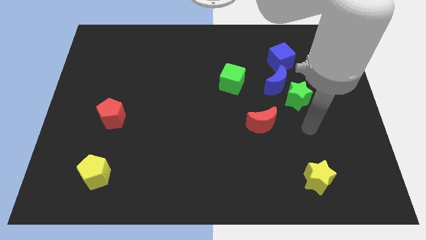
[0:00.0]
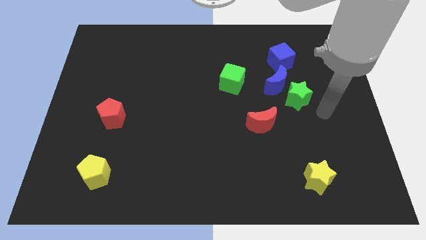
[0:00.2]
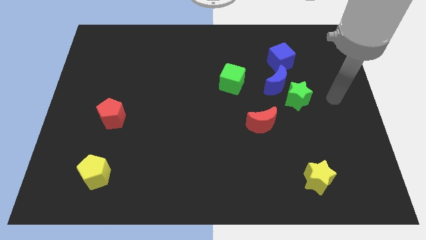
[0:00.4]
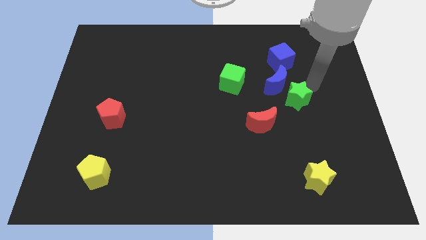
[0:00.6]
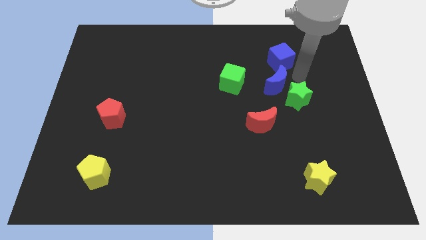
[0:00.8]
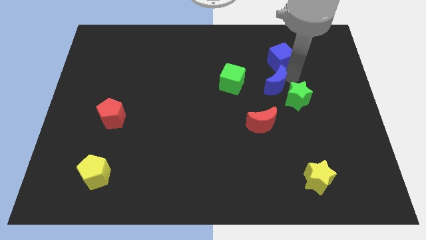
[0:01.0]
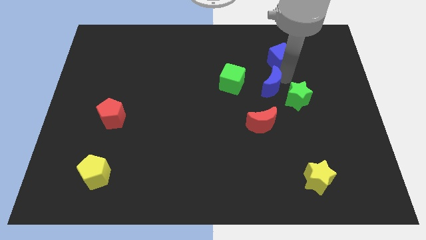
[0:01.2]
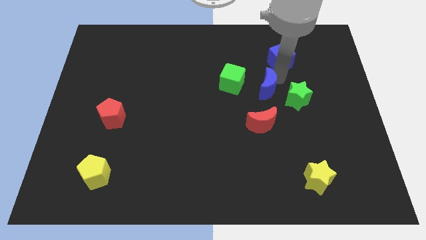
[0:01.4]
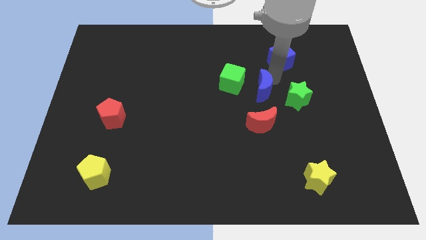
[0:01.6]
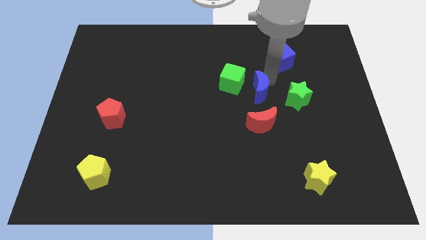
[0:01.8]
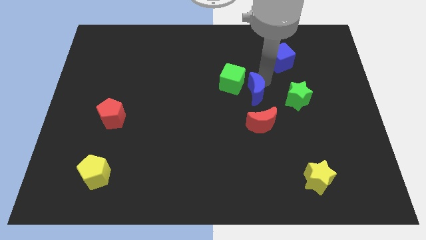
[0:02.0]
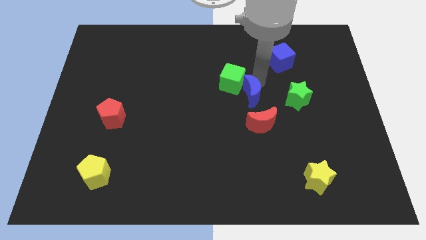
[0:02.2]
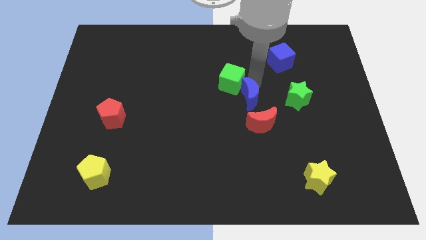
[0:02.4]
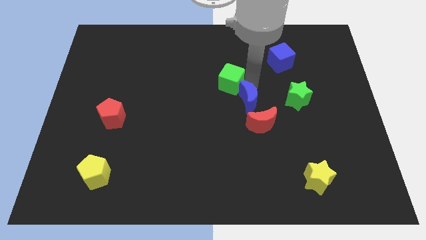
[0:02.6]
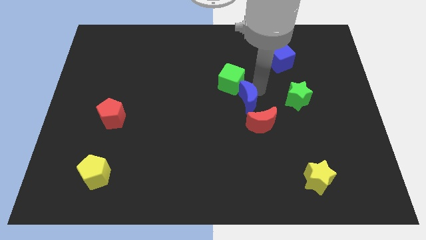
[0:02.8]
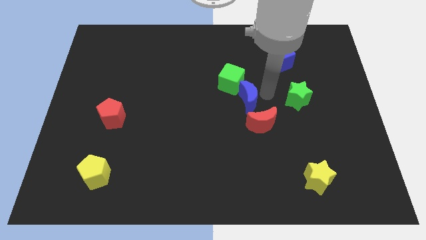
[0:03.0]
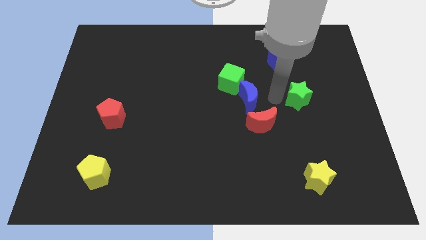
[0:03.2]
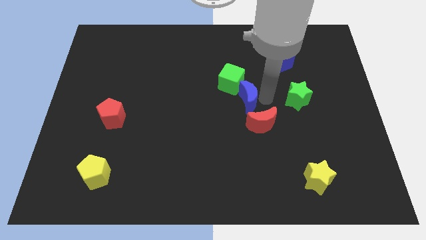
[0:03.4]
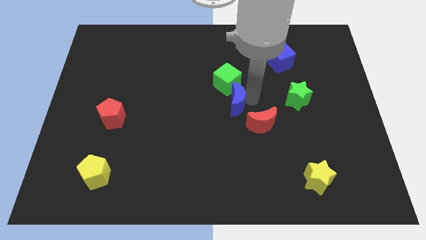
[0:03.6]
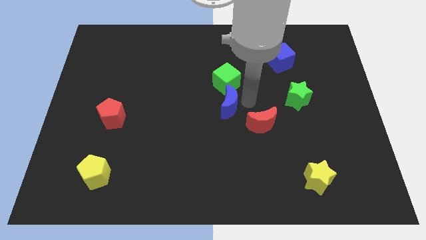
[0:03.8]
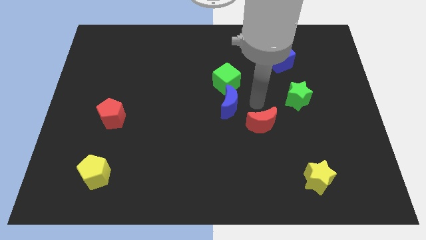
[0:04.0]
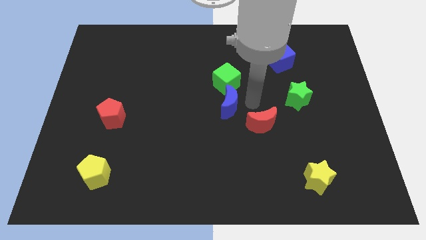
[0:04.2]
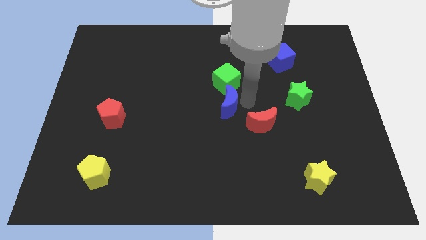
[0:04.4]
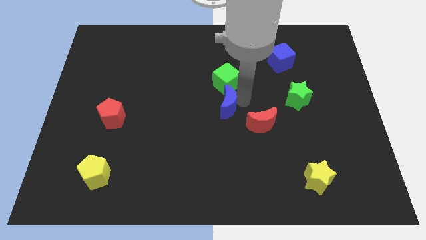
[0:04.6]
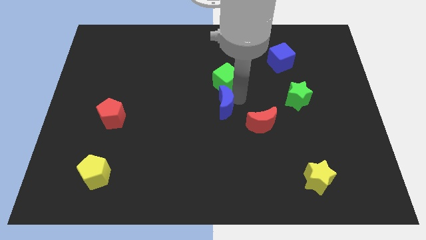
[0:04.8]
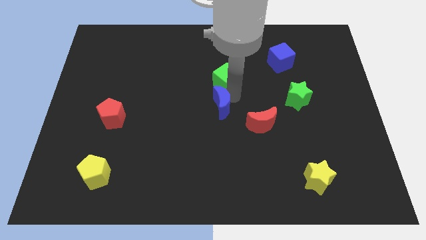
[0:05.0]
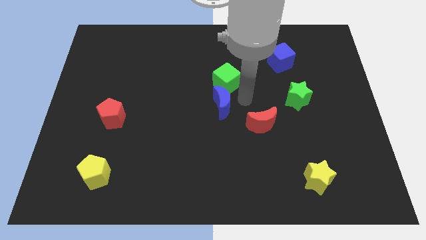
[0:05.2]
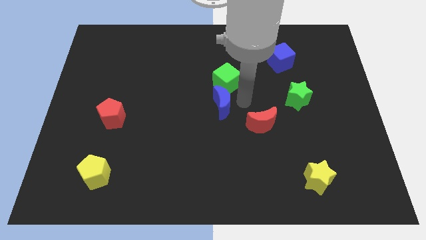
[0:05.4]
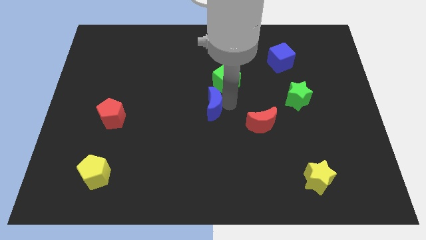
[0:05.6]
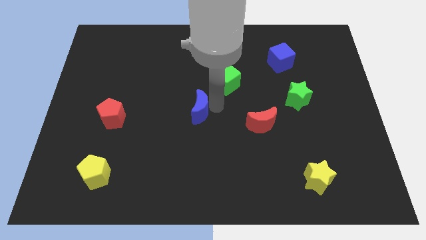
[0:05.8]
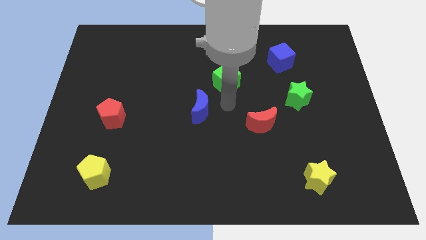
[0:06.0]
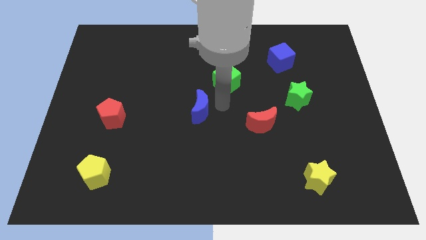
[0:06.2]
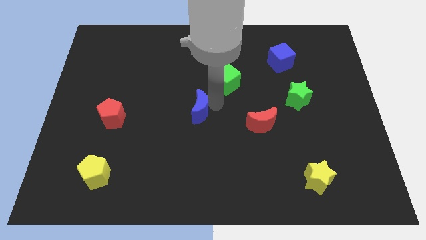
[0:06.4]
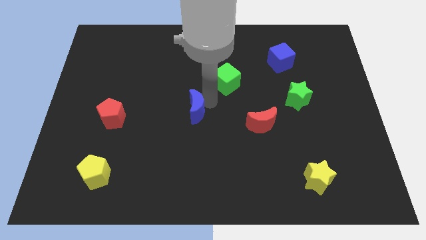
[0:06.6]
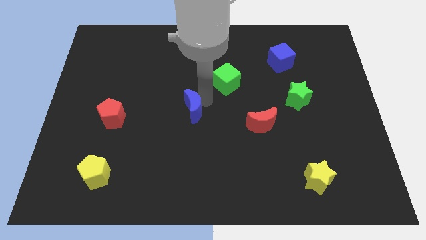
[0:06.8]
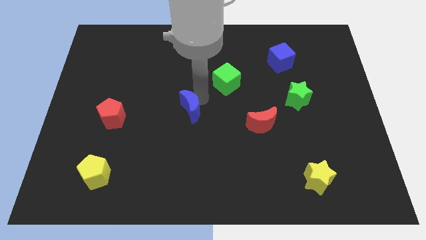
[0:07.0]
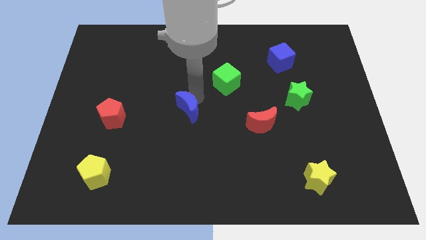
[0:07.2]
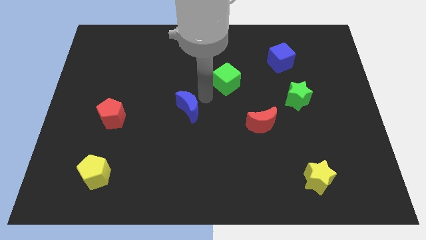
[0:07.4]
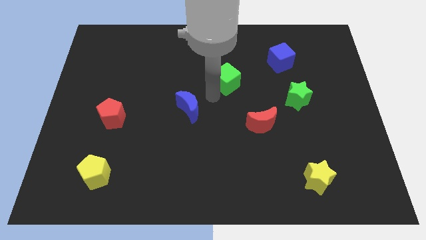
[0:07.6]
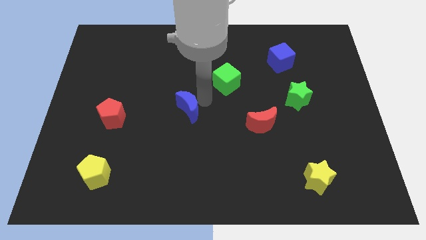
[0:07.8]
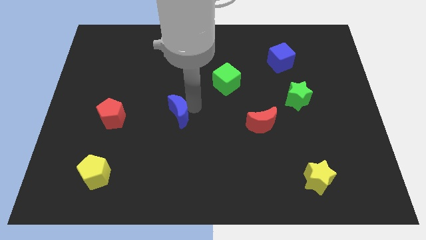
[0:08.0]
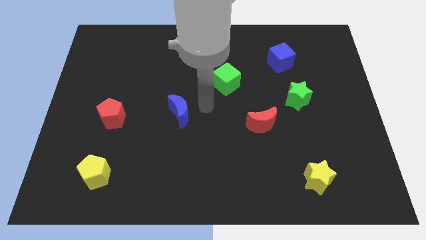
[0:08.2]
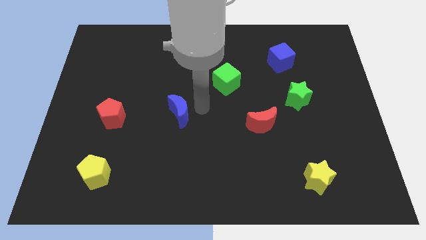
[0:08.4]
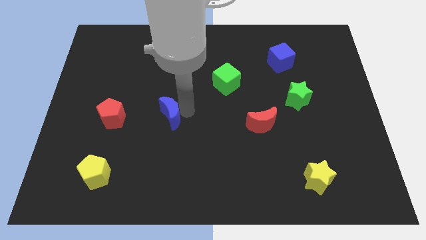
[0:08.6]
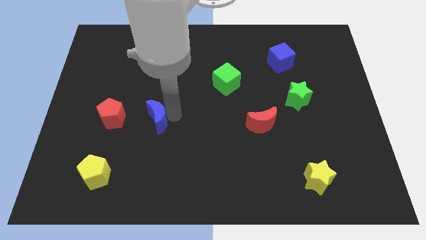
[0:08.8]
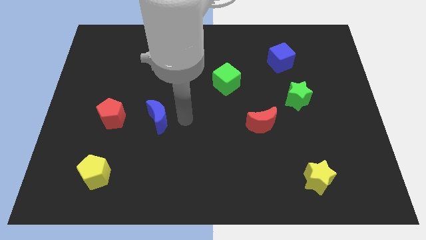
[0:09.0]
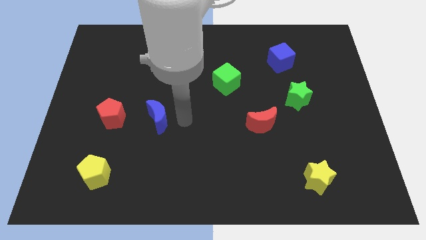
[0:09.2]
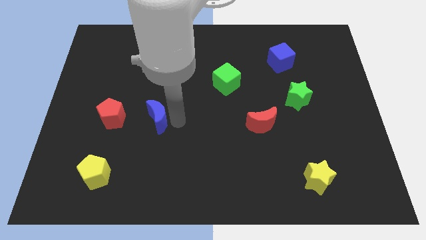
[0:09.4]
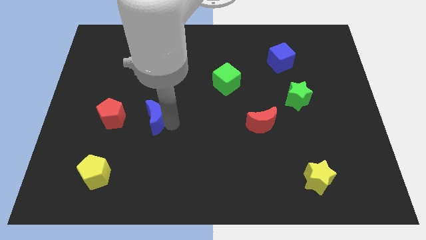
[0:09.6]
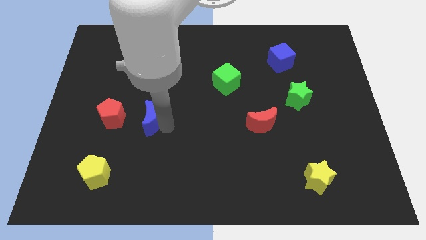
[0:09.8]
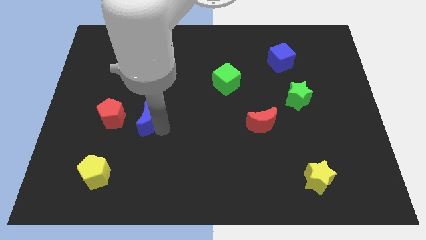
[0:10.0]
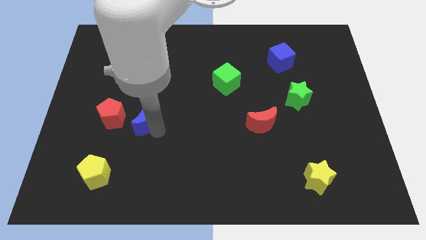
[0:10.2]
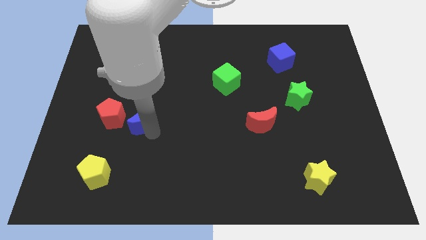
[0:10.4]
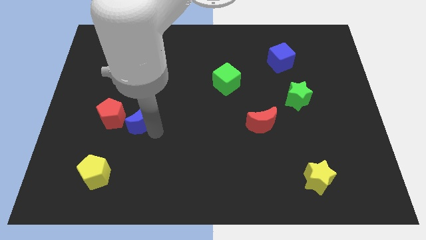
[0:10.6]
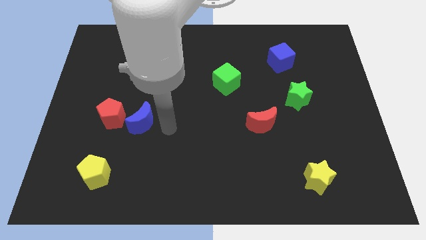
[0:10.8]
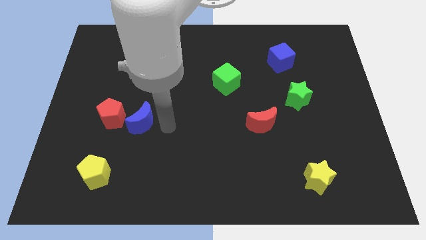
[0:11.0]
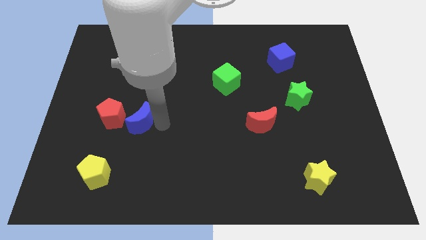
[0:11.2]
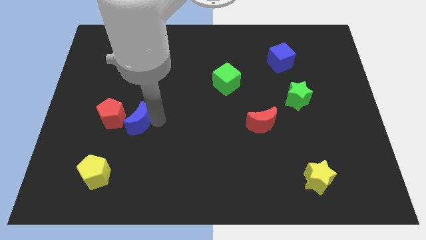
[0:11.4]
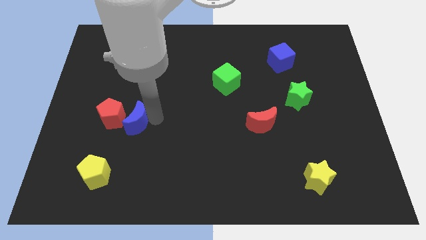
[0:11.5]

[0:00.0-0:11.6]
put the blue moon next to the red pentagon

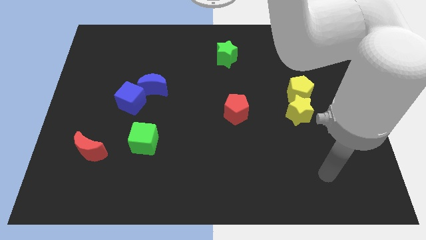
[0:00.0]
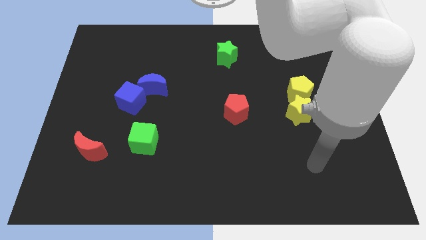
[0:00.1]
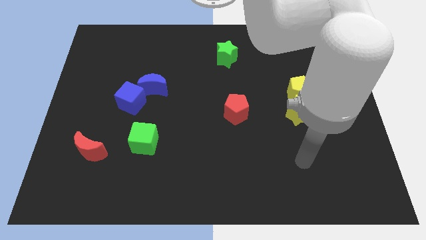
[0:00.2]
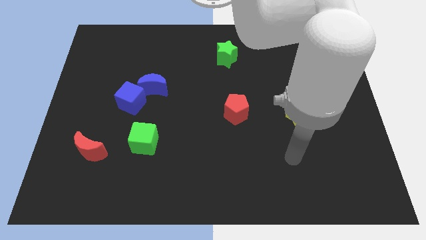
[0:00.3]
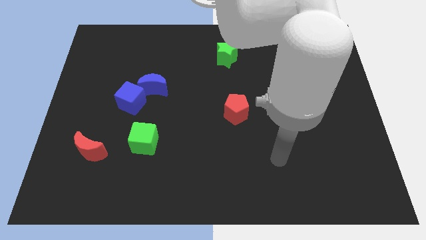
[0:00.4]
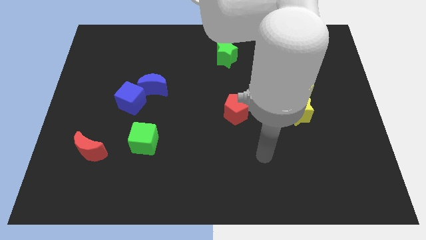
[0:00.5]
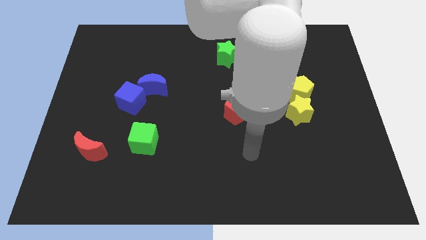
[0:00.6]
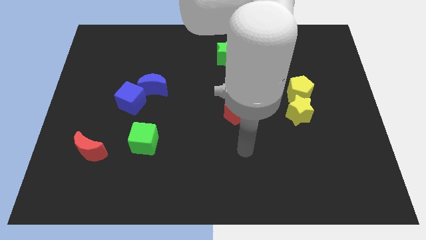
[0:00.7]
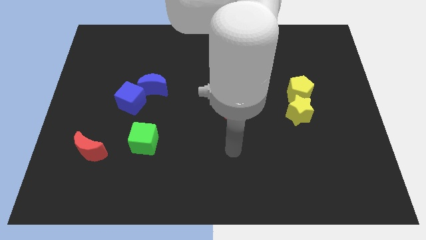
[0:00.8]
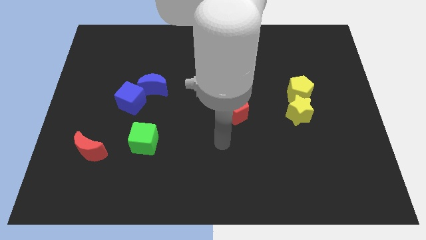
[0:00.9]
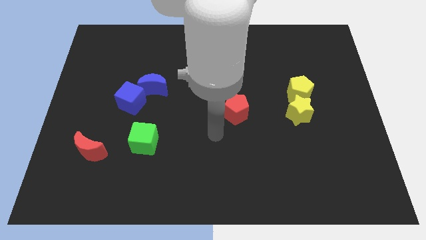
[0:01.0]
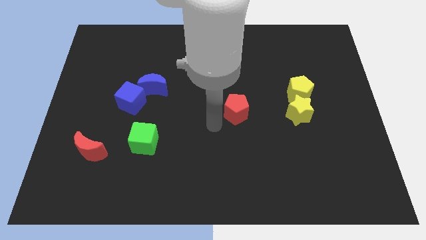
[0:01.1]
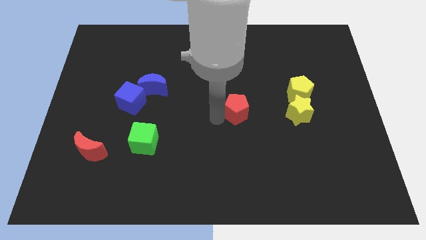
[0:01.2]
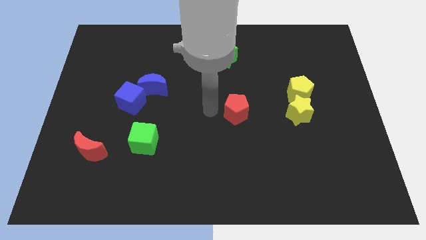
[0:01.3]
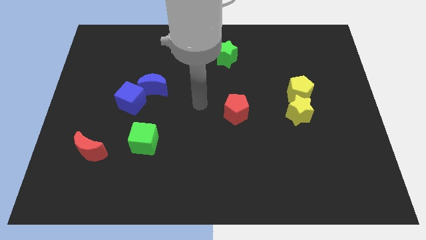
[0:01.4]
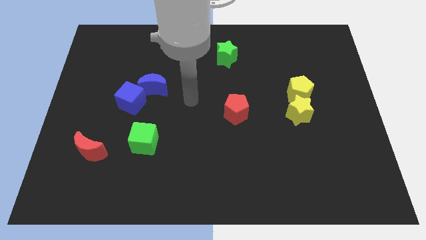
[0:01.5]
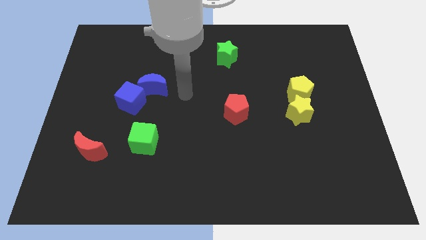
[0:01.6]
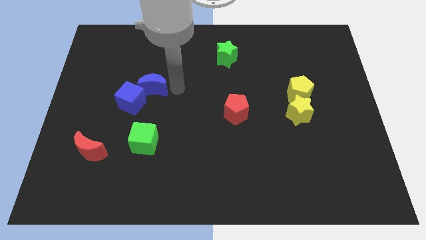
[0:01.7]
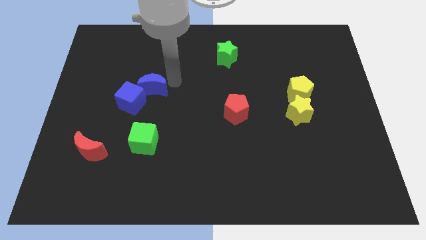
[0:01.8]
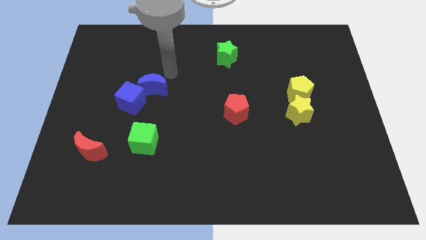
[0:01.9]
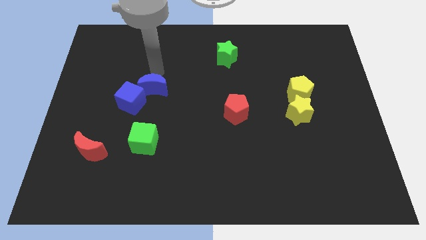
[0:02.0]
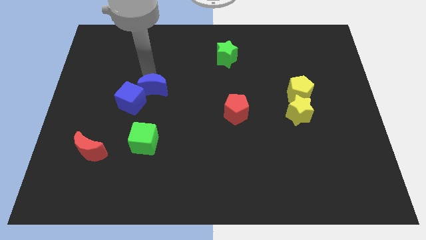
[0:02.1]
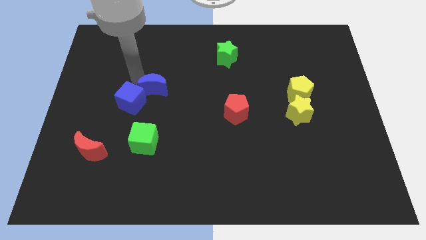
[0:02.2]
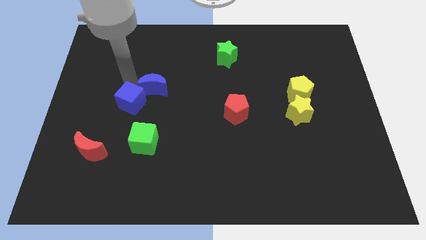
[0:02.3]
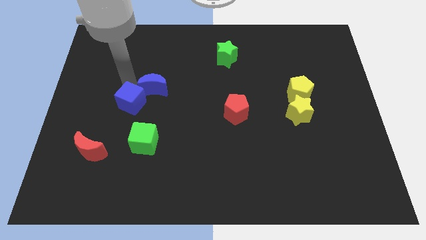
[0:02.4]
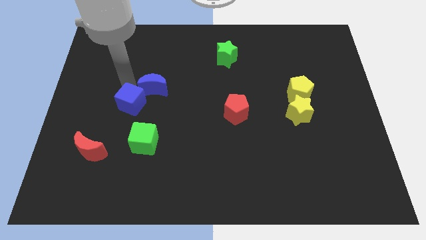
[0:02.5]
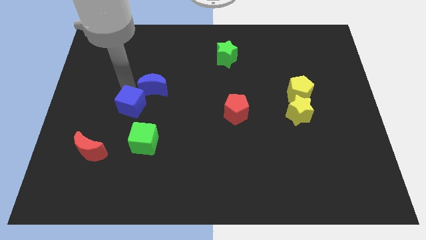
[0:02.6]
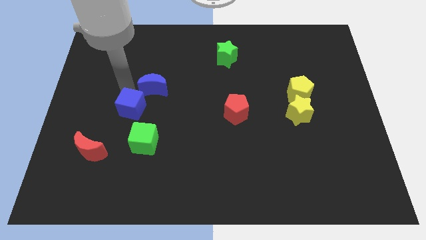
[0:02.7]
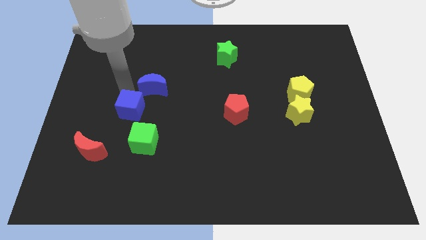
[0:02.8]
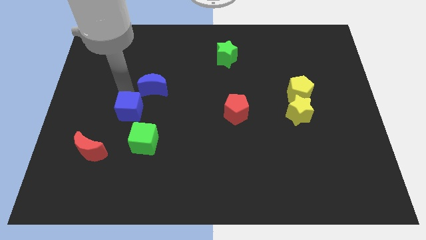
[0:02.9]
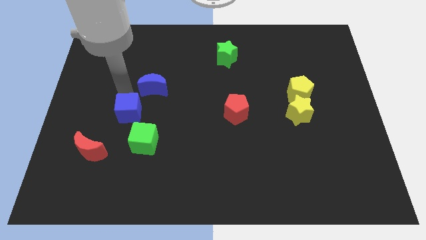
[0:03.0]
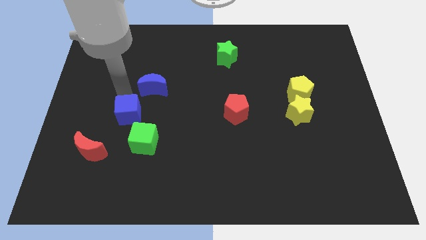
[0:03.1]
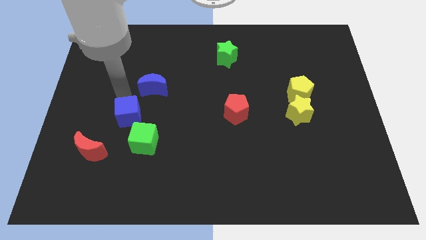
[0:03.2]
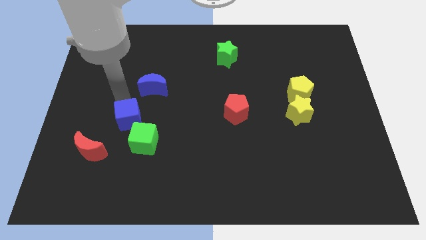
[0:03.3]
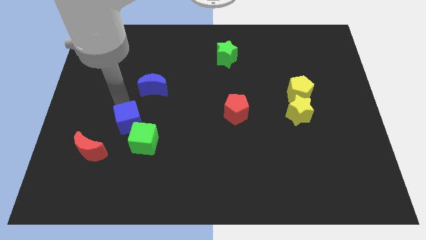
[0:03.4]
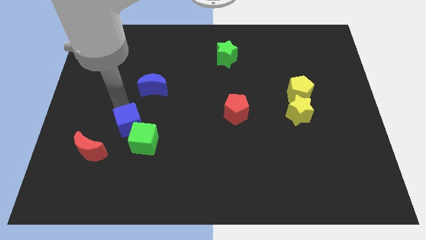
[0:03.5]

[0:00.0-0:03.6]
slide the blue cube to the green cube
